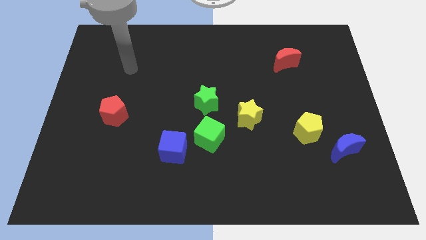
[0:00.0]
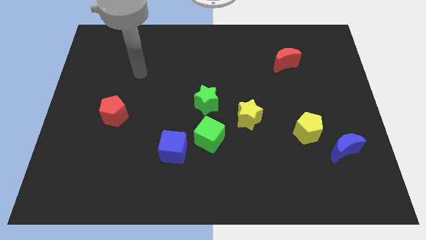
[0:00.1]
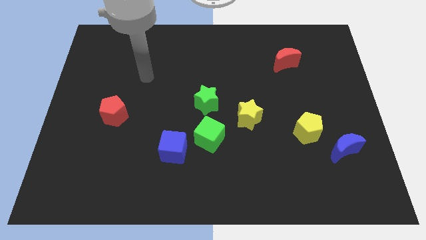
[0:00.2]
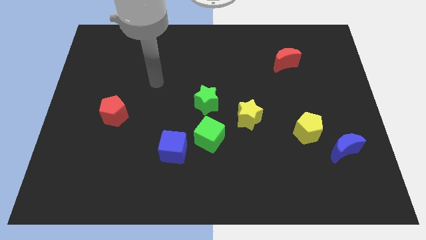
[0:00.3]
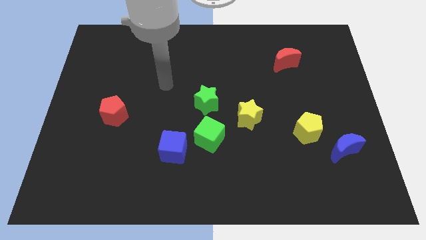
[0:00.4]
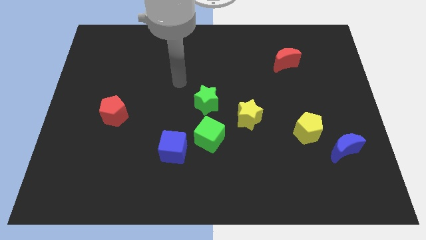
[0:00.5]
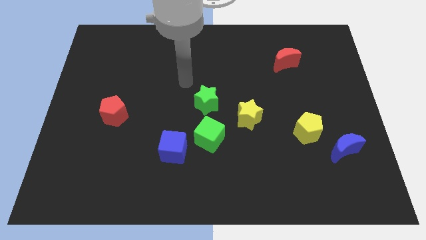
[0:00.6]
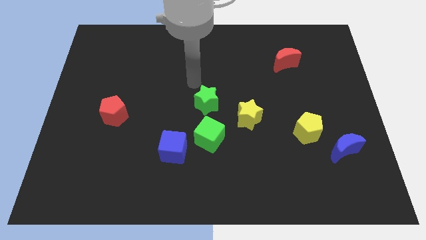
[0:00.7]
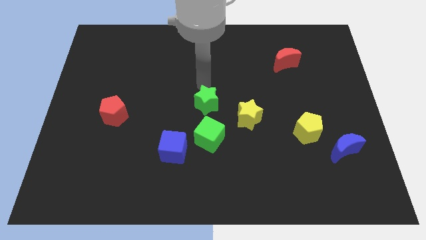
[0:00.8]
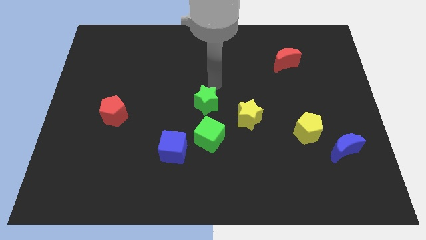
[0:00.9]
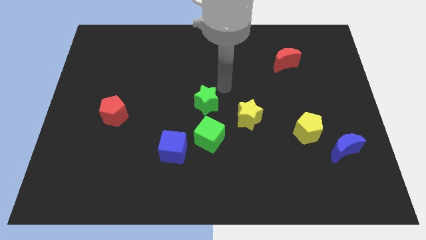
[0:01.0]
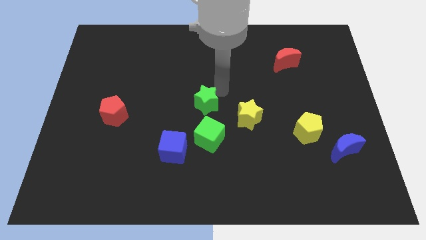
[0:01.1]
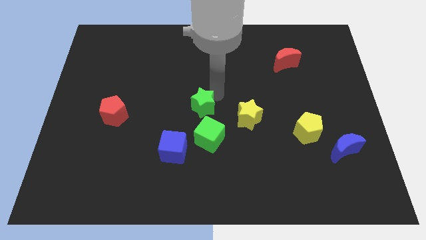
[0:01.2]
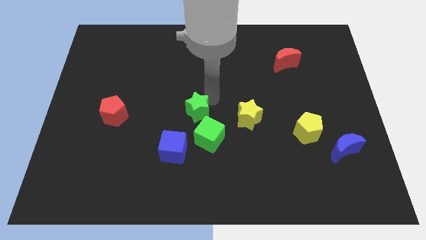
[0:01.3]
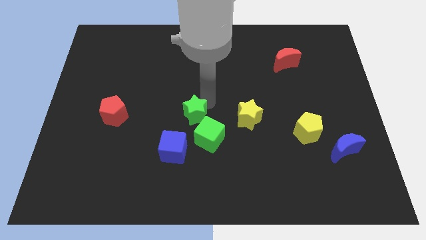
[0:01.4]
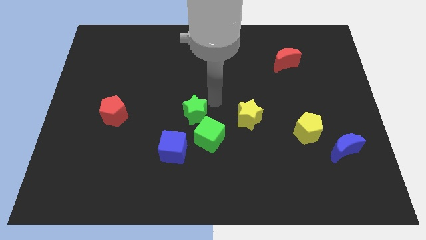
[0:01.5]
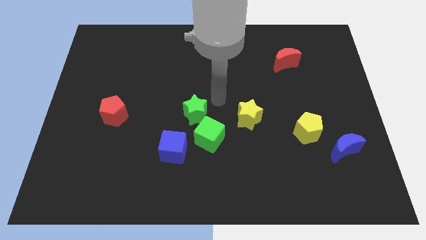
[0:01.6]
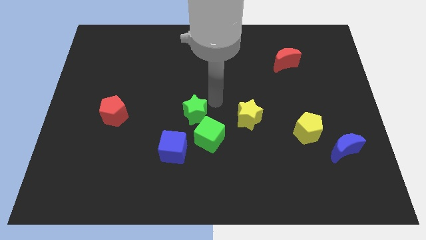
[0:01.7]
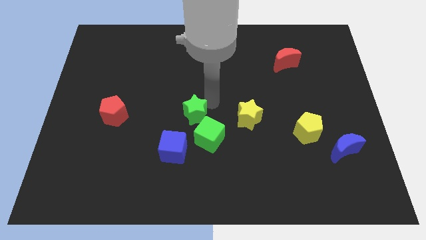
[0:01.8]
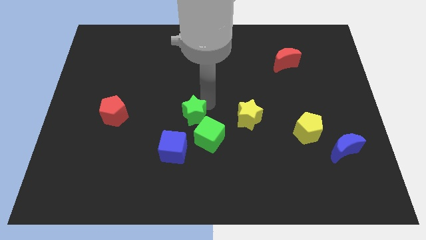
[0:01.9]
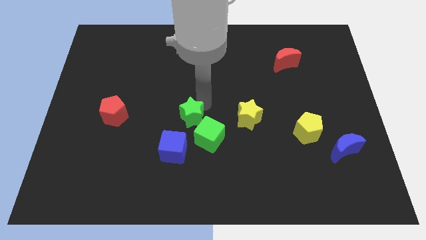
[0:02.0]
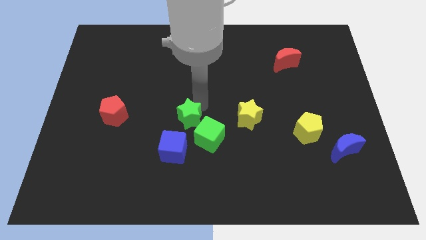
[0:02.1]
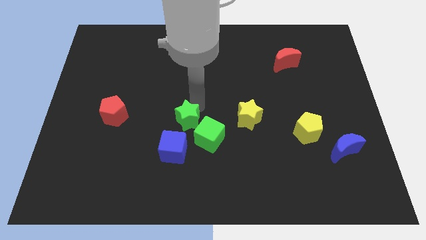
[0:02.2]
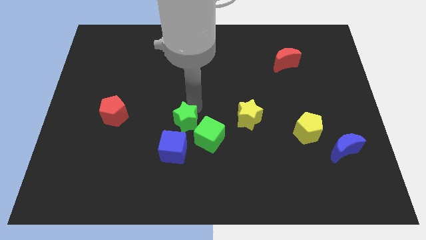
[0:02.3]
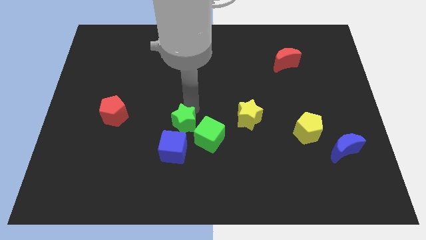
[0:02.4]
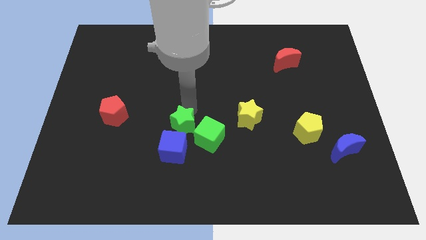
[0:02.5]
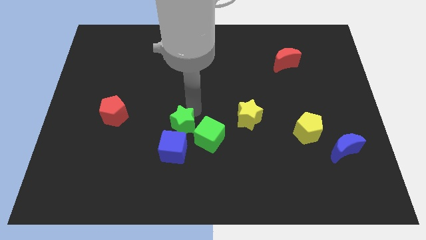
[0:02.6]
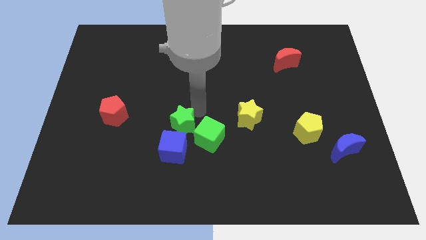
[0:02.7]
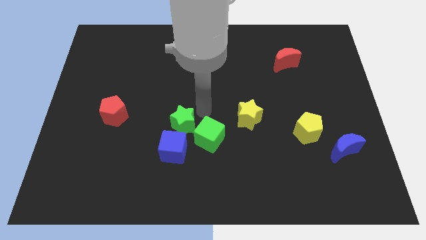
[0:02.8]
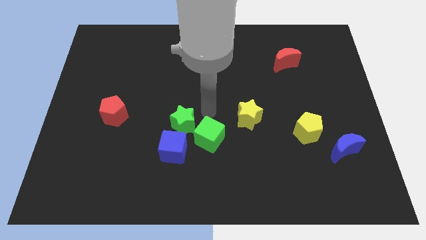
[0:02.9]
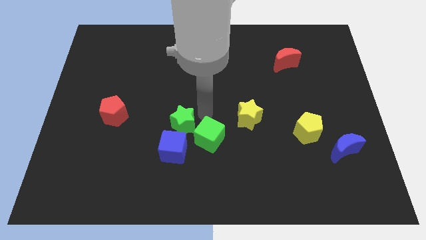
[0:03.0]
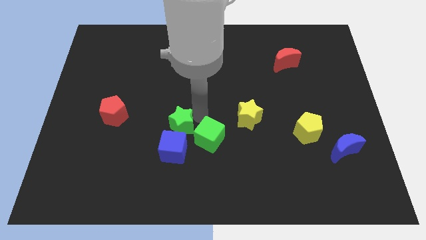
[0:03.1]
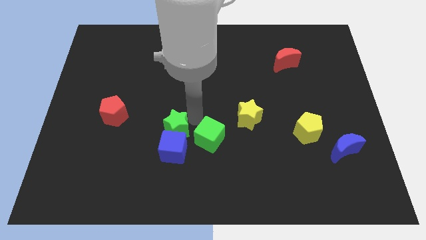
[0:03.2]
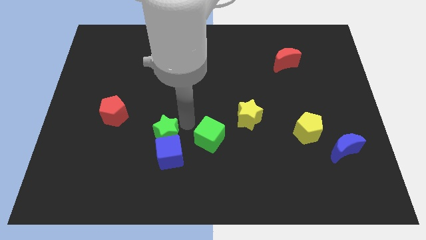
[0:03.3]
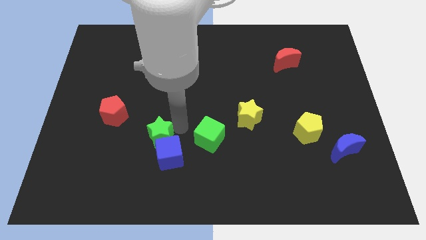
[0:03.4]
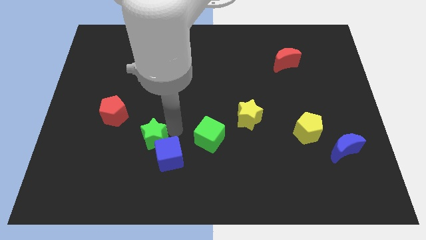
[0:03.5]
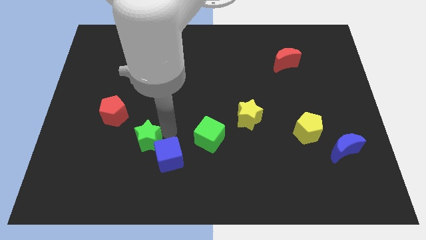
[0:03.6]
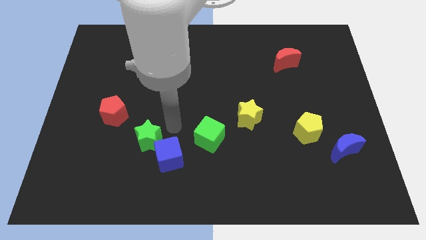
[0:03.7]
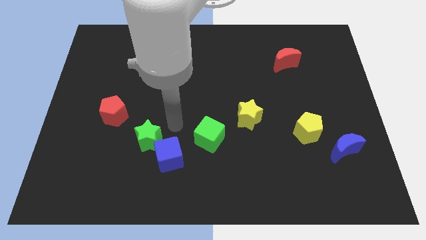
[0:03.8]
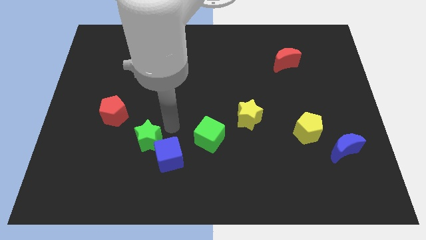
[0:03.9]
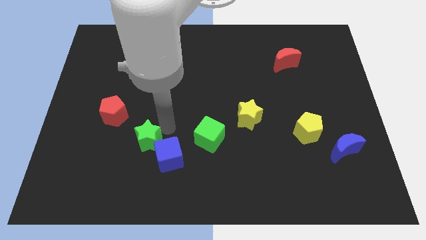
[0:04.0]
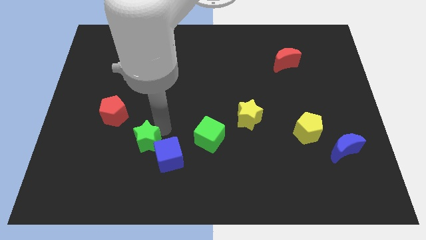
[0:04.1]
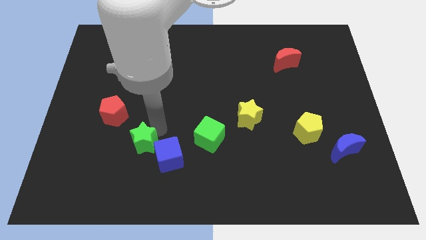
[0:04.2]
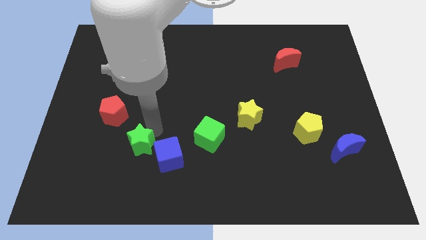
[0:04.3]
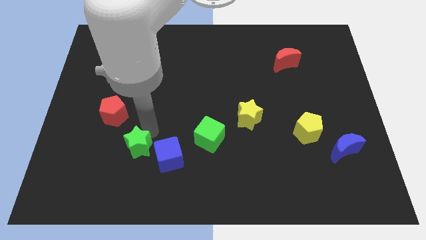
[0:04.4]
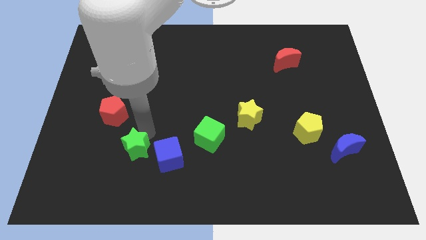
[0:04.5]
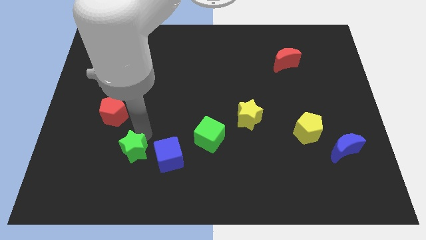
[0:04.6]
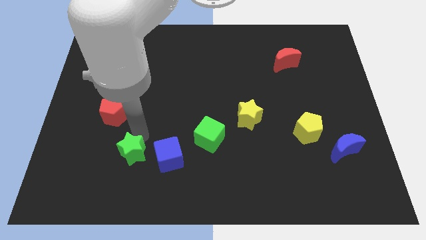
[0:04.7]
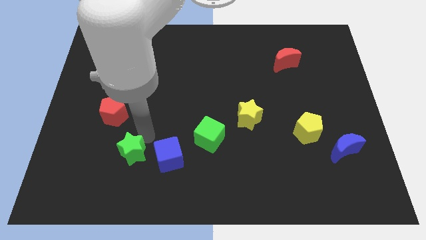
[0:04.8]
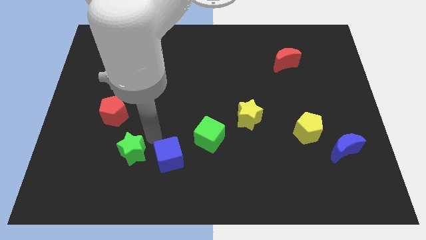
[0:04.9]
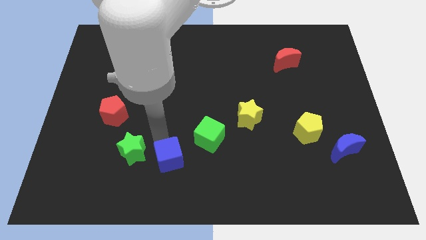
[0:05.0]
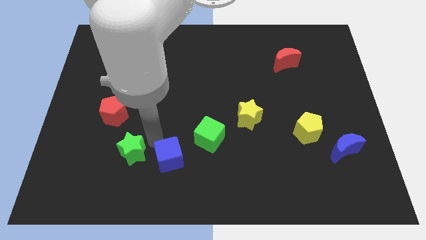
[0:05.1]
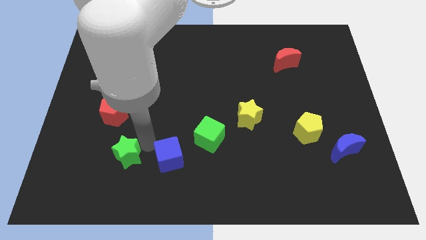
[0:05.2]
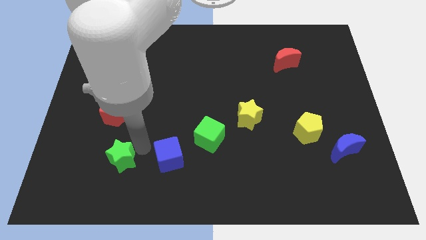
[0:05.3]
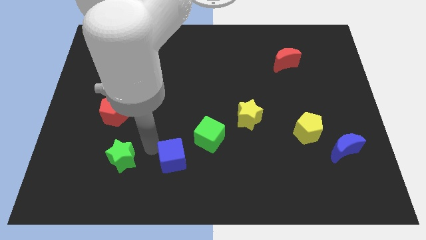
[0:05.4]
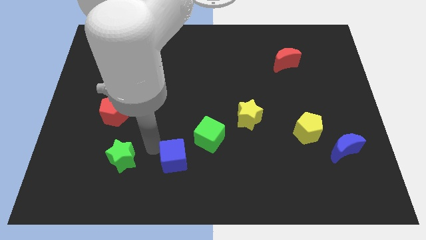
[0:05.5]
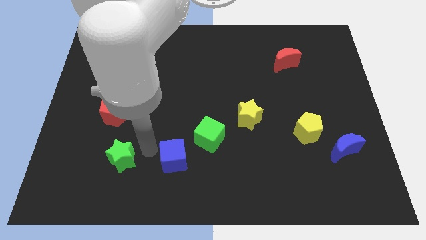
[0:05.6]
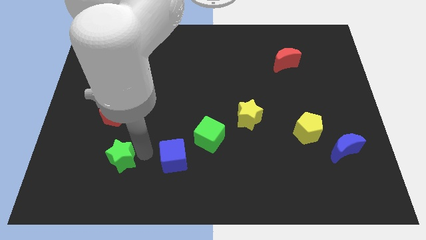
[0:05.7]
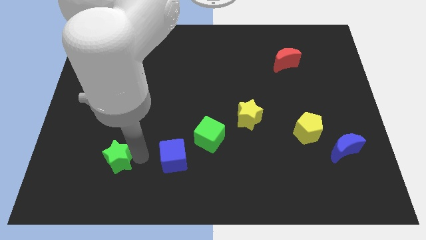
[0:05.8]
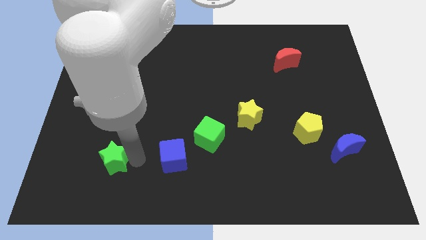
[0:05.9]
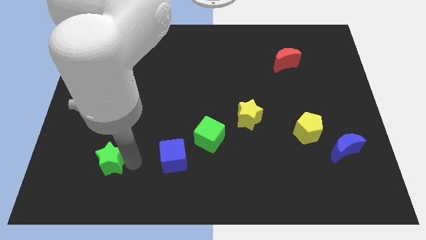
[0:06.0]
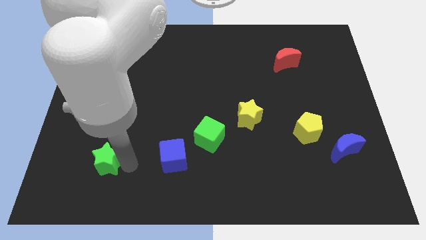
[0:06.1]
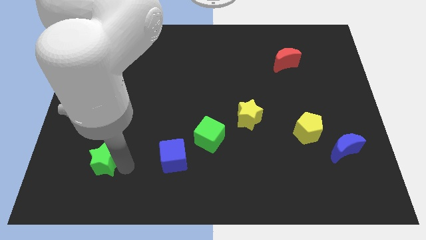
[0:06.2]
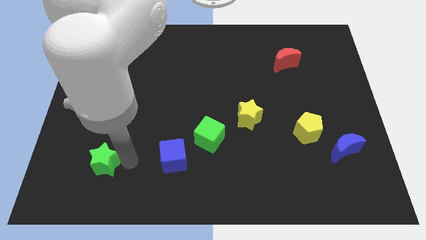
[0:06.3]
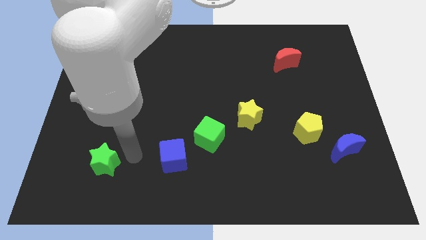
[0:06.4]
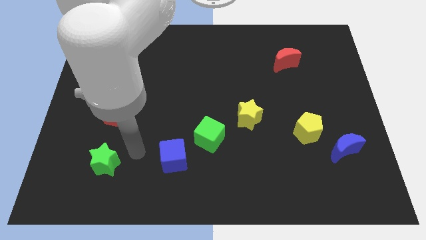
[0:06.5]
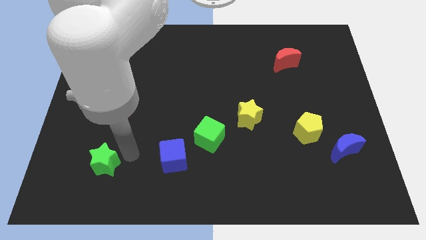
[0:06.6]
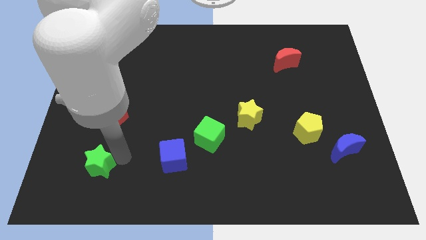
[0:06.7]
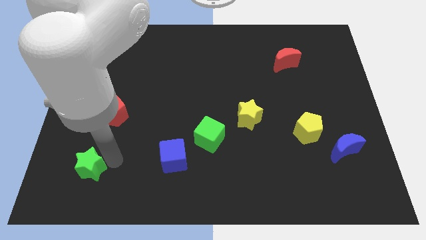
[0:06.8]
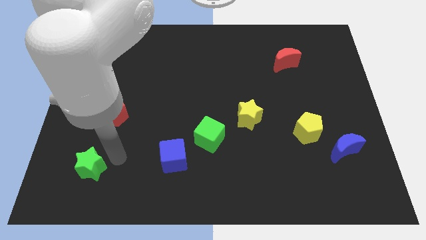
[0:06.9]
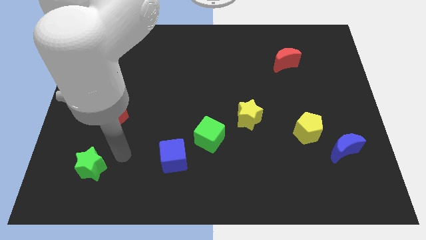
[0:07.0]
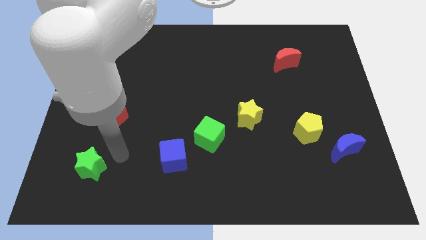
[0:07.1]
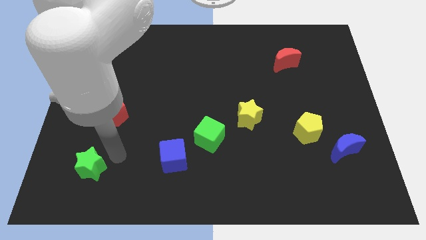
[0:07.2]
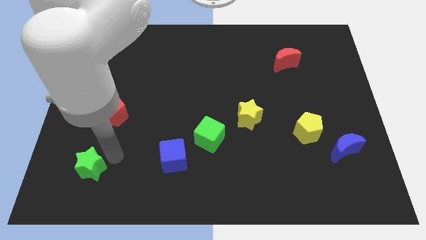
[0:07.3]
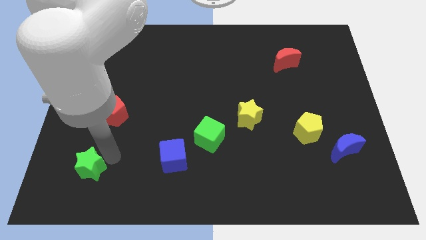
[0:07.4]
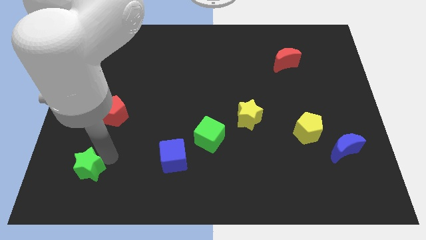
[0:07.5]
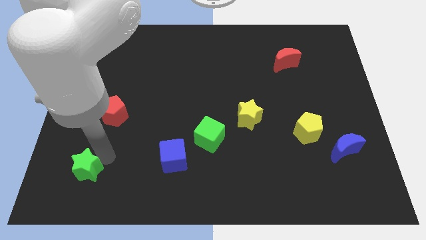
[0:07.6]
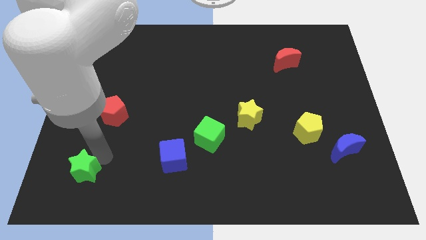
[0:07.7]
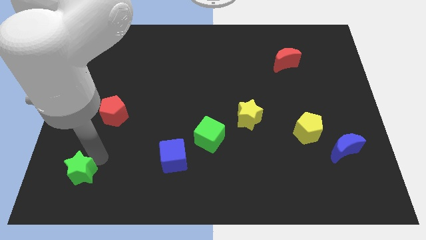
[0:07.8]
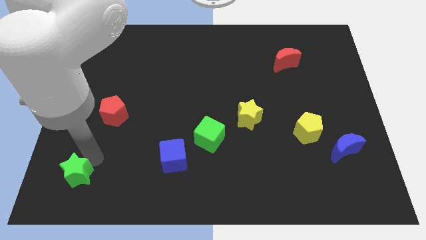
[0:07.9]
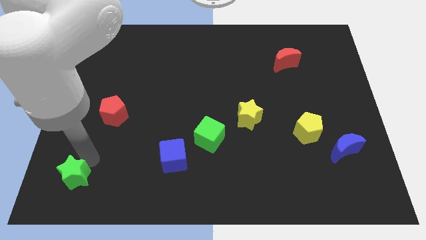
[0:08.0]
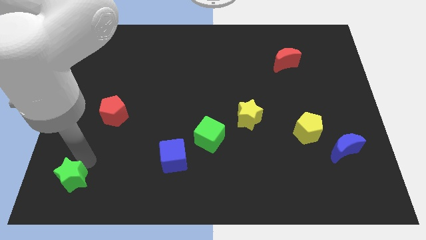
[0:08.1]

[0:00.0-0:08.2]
put the green star to the bottom left corner
